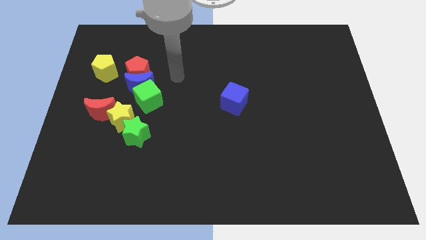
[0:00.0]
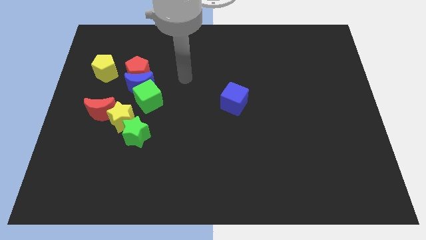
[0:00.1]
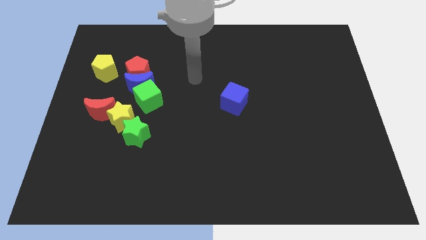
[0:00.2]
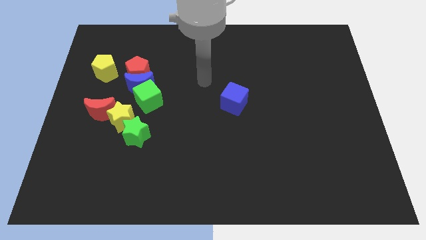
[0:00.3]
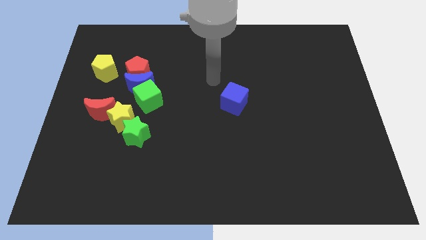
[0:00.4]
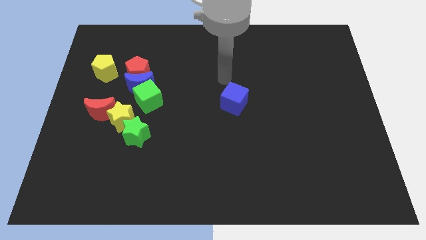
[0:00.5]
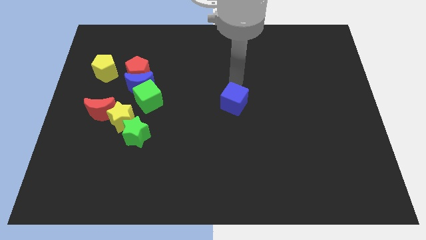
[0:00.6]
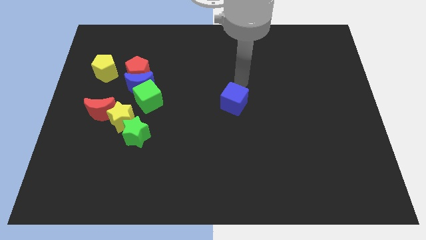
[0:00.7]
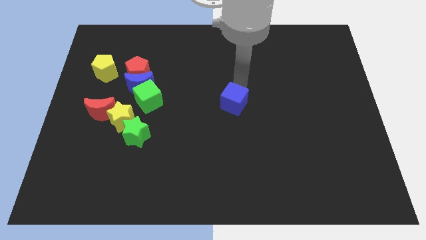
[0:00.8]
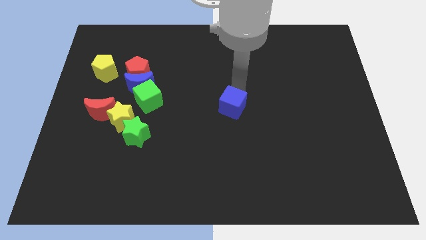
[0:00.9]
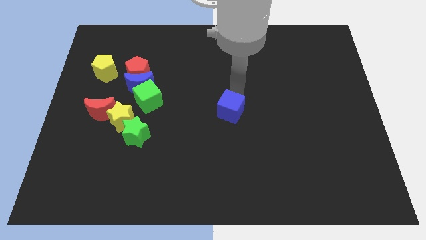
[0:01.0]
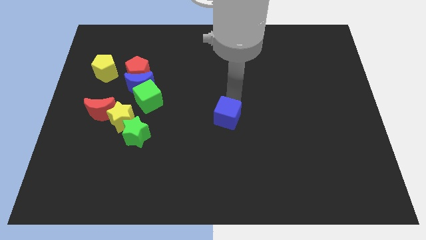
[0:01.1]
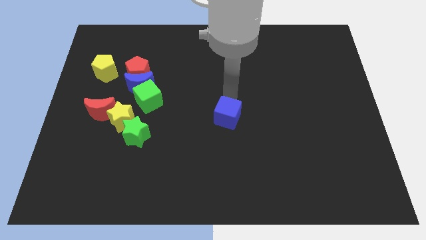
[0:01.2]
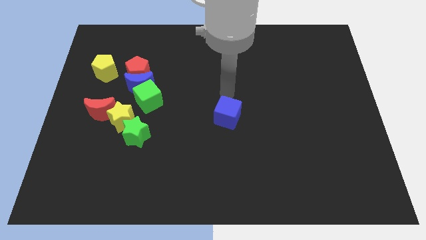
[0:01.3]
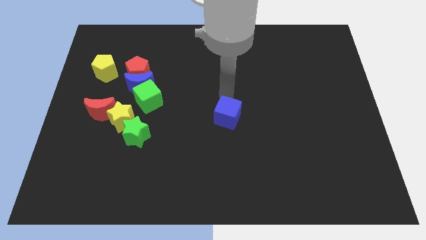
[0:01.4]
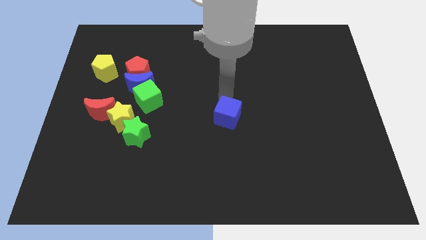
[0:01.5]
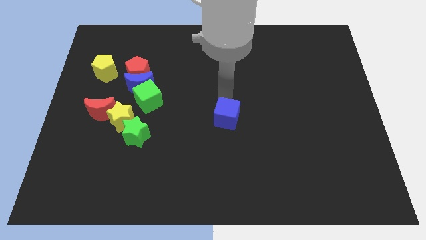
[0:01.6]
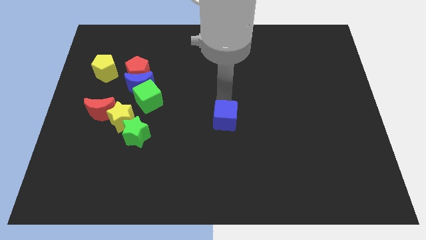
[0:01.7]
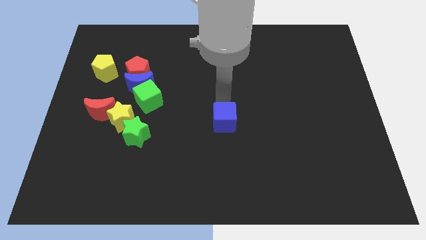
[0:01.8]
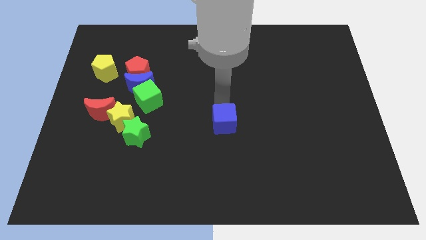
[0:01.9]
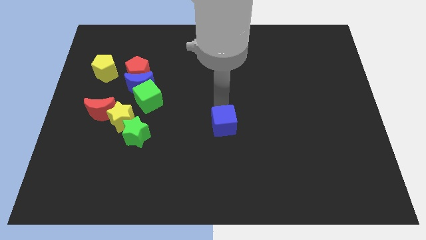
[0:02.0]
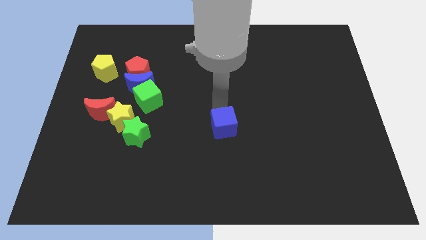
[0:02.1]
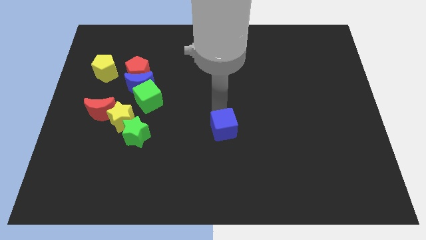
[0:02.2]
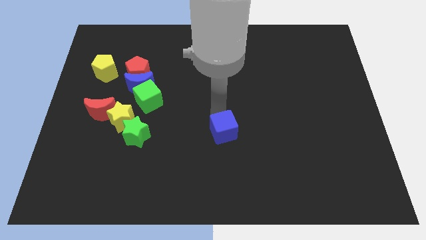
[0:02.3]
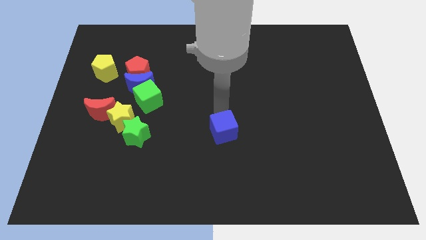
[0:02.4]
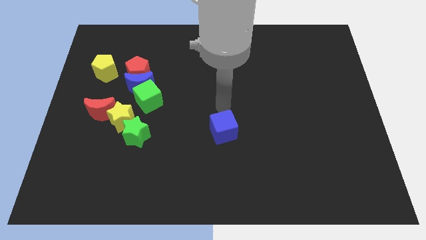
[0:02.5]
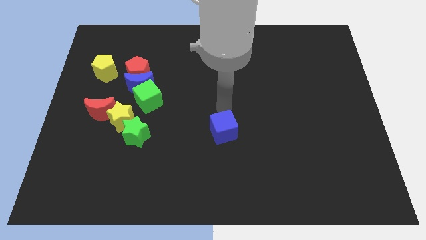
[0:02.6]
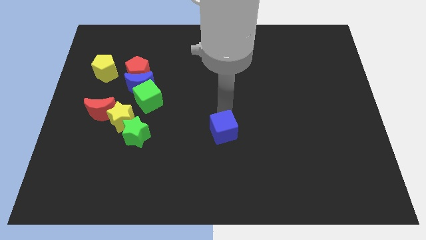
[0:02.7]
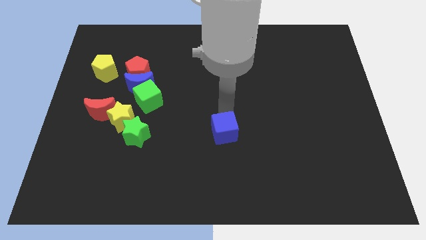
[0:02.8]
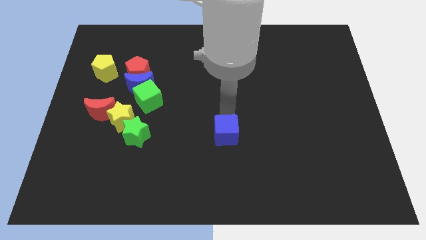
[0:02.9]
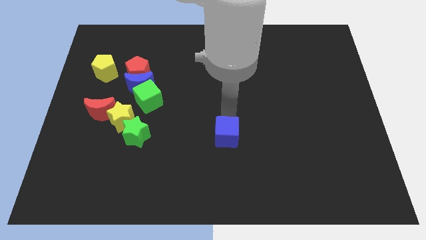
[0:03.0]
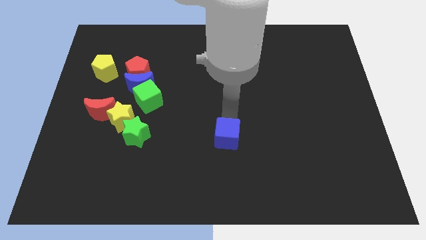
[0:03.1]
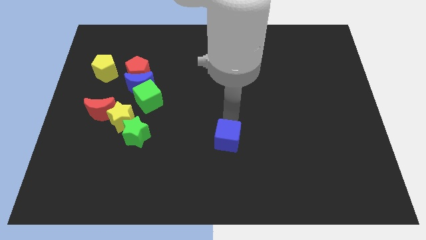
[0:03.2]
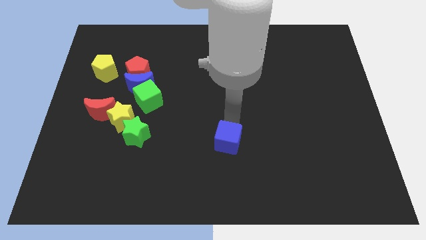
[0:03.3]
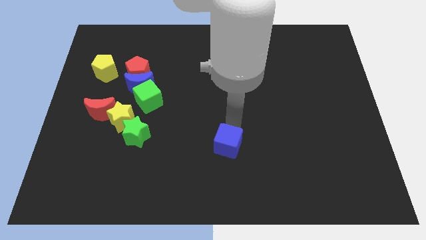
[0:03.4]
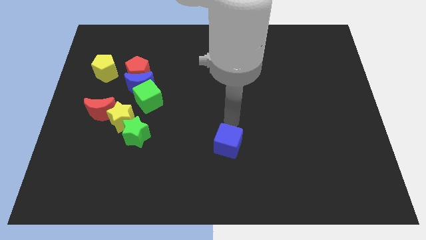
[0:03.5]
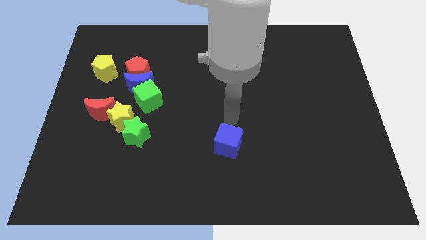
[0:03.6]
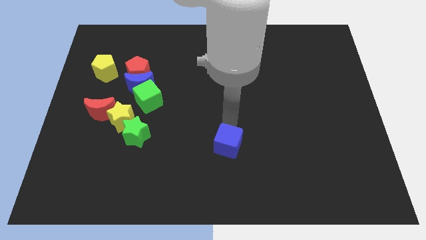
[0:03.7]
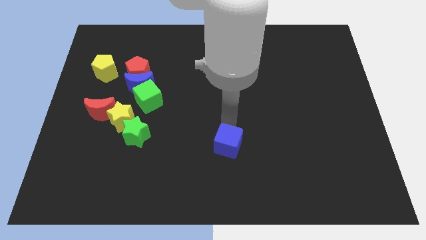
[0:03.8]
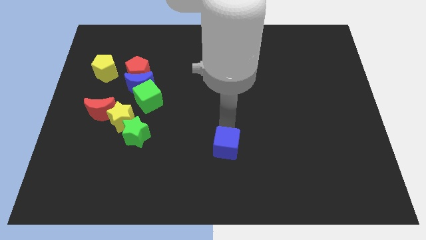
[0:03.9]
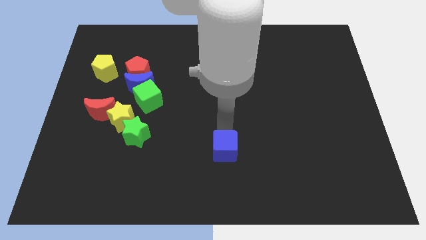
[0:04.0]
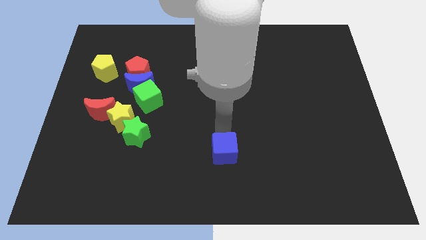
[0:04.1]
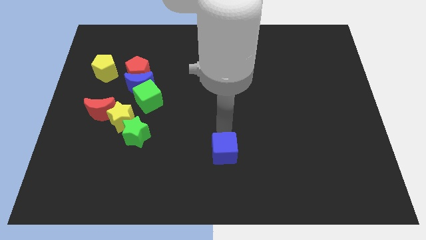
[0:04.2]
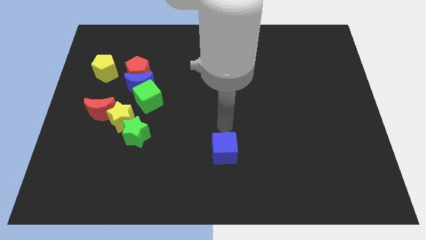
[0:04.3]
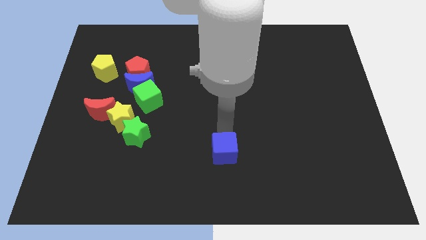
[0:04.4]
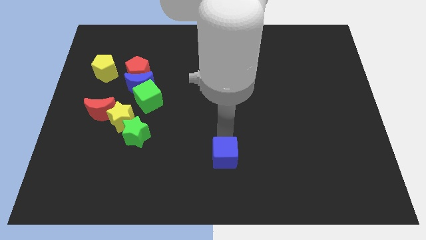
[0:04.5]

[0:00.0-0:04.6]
move the blue cube to the bottom side

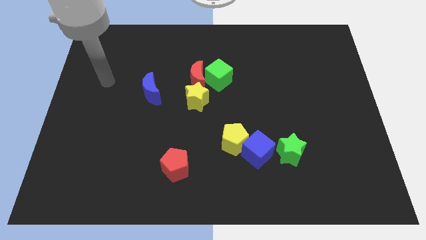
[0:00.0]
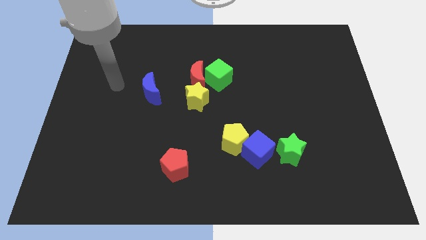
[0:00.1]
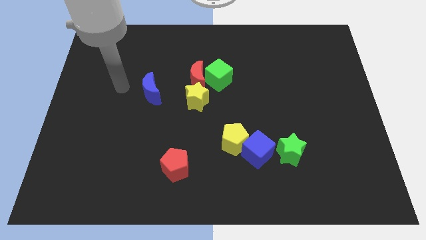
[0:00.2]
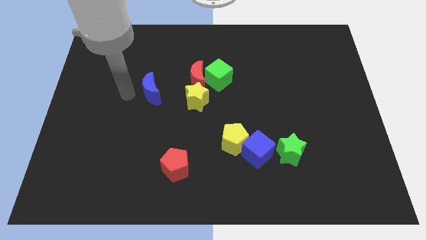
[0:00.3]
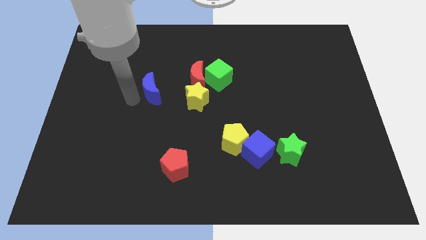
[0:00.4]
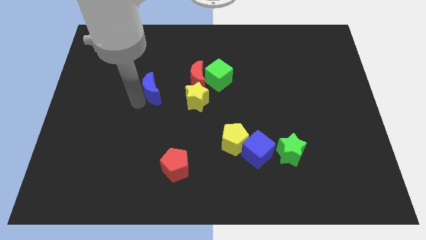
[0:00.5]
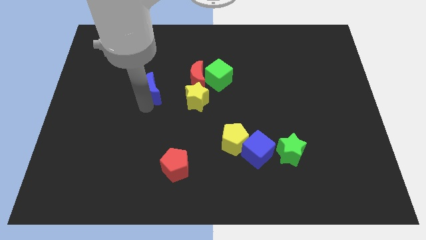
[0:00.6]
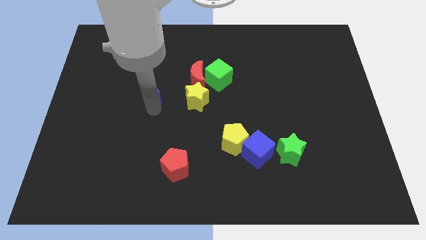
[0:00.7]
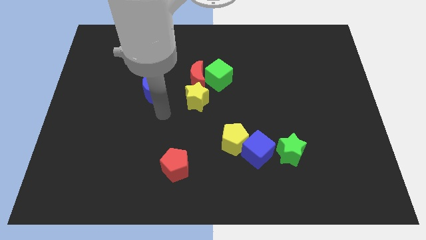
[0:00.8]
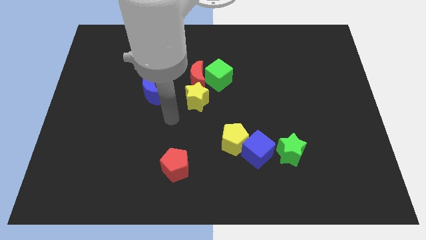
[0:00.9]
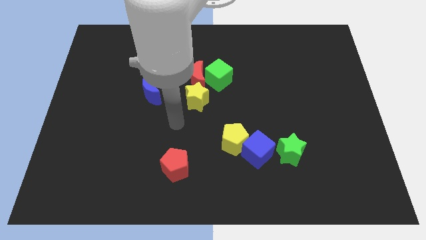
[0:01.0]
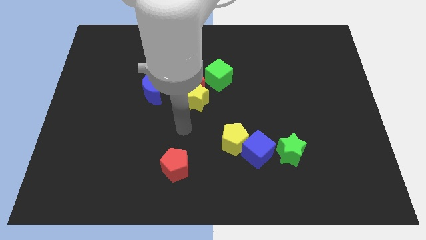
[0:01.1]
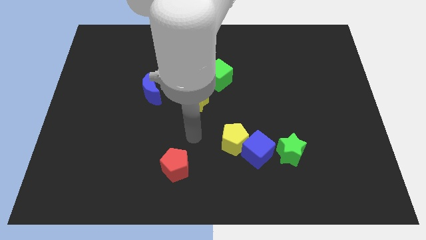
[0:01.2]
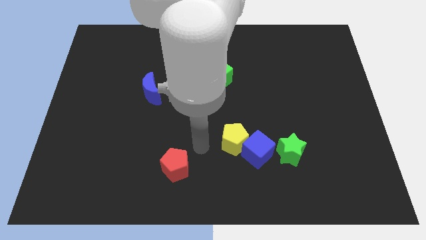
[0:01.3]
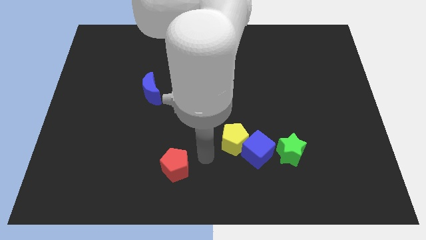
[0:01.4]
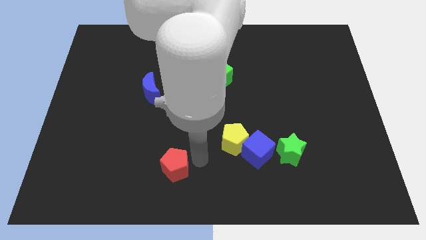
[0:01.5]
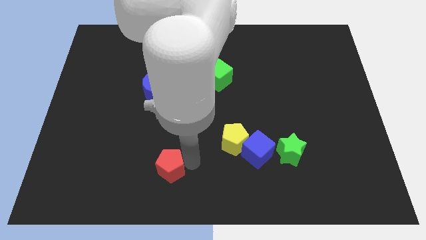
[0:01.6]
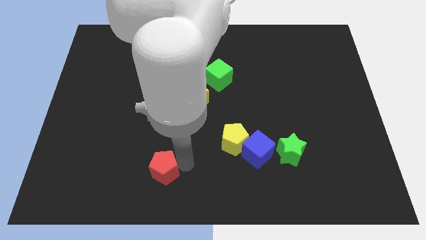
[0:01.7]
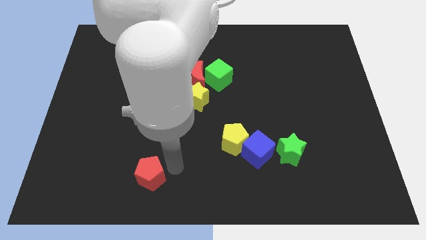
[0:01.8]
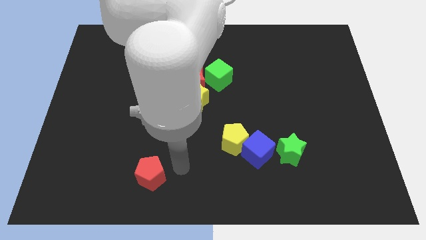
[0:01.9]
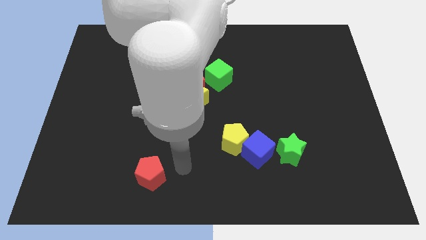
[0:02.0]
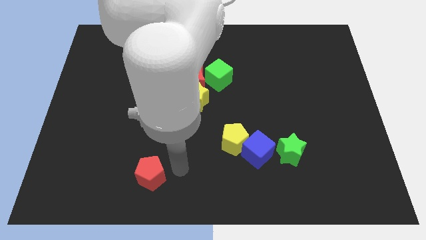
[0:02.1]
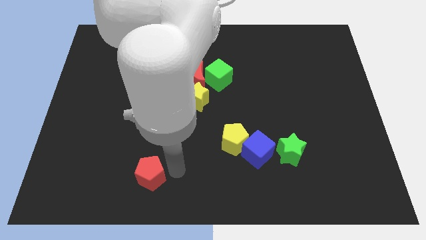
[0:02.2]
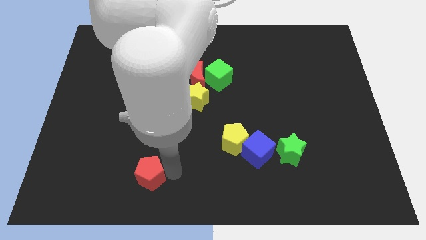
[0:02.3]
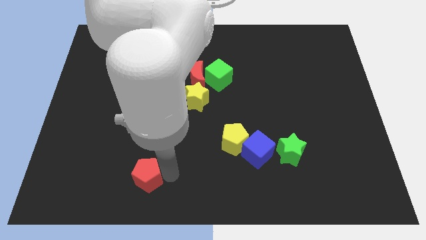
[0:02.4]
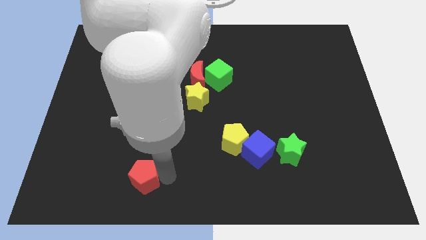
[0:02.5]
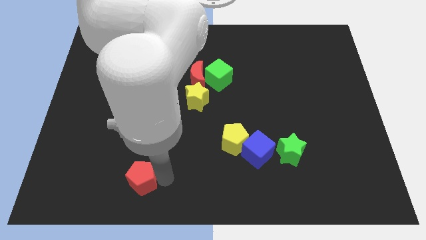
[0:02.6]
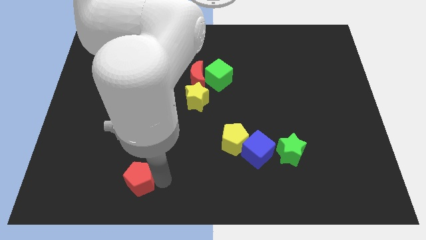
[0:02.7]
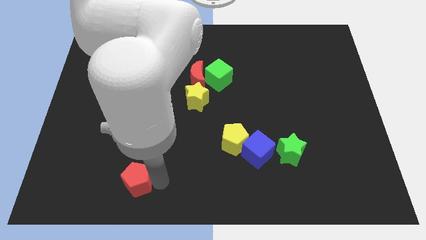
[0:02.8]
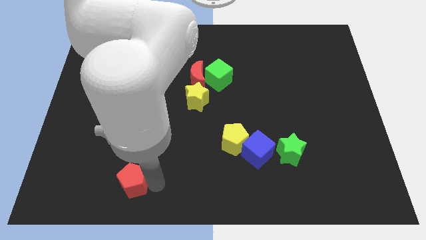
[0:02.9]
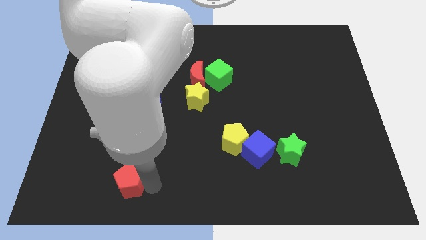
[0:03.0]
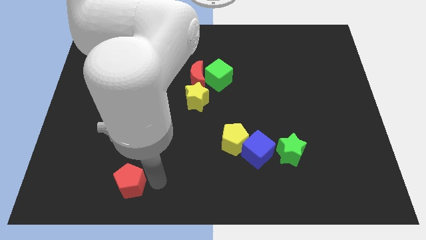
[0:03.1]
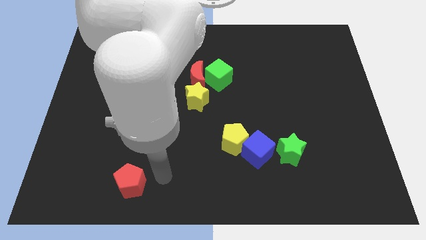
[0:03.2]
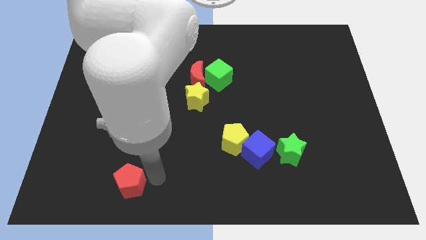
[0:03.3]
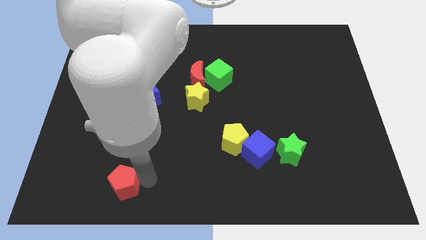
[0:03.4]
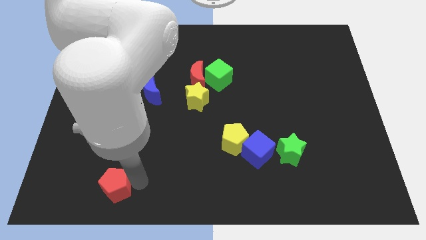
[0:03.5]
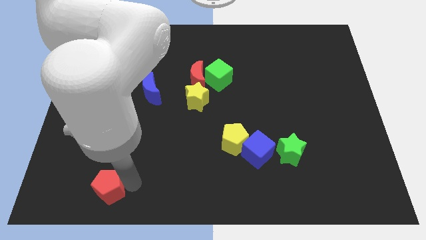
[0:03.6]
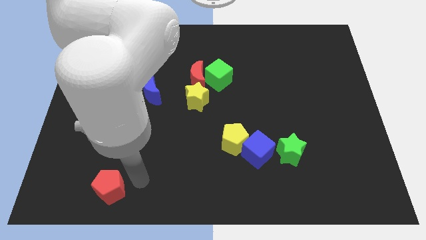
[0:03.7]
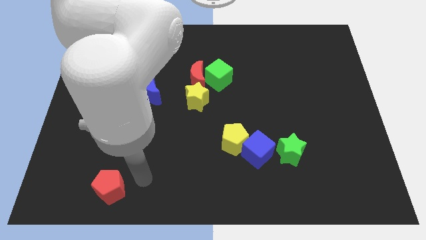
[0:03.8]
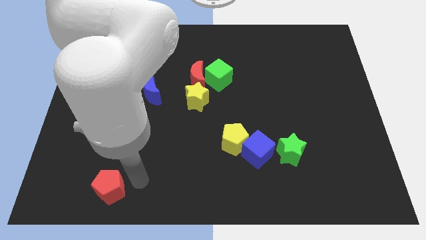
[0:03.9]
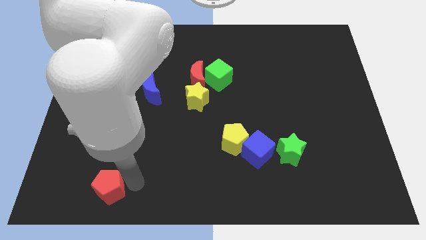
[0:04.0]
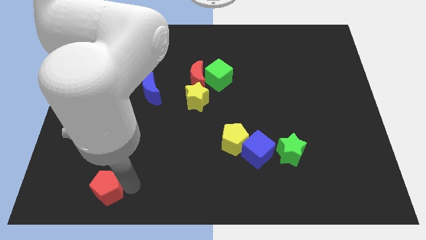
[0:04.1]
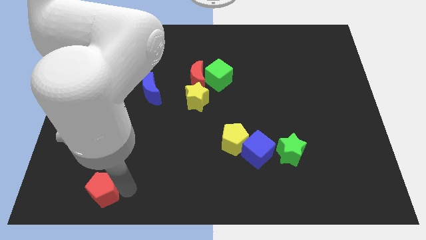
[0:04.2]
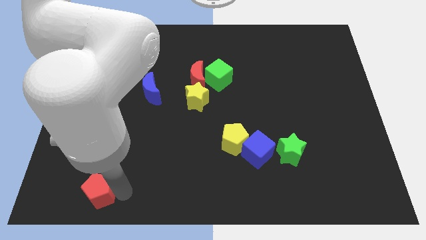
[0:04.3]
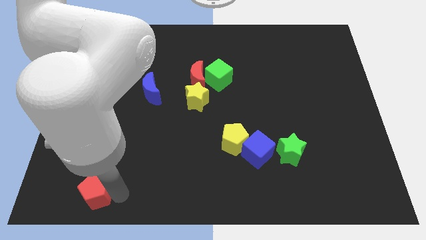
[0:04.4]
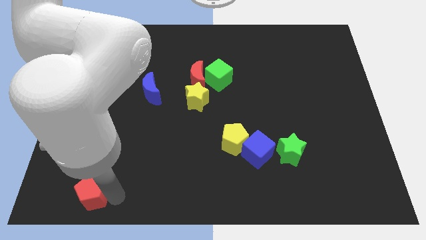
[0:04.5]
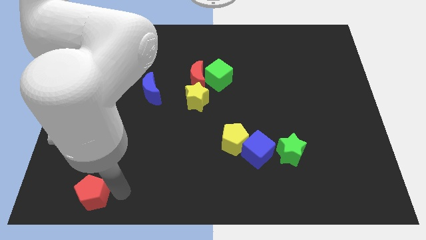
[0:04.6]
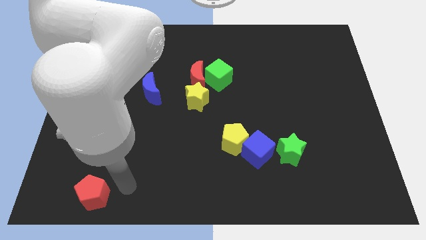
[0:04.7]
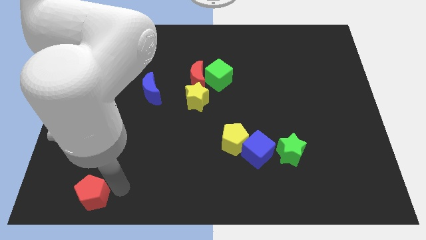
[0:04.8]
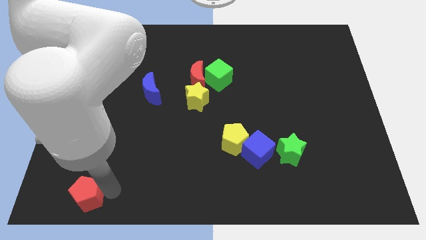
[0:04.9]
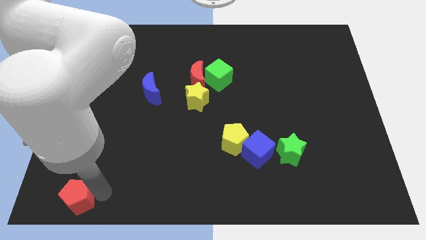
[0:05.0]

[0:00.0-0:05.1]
move the red pentagon to the bottom left corner
